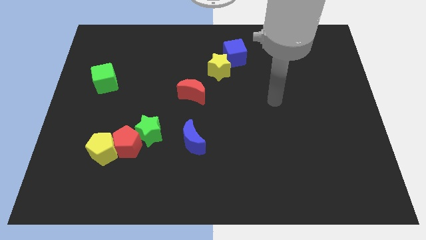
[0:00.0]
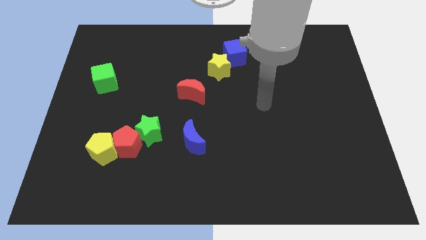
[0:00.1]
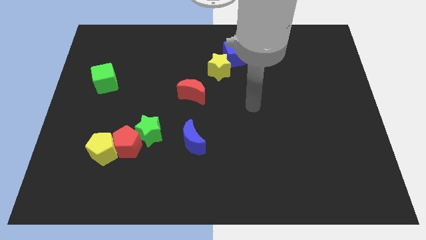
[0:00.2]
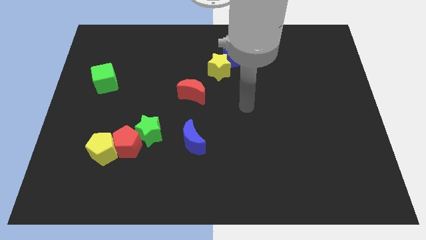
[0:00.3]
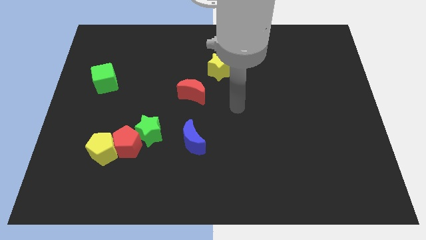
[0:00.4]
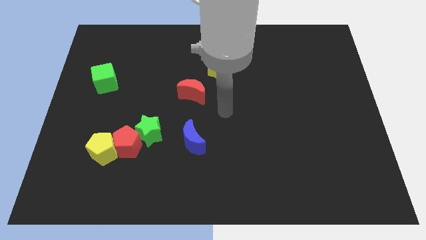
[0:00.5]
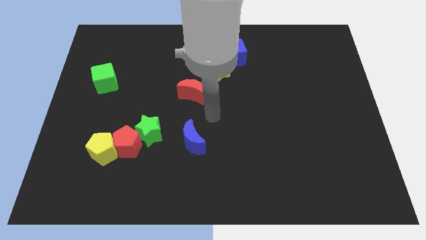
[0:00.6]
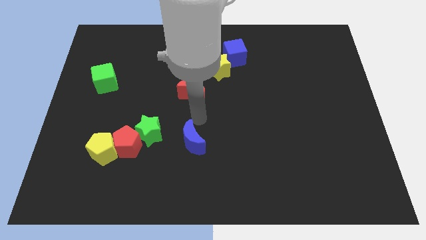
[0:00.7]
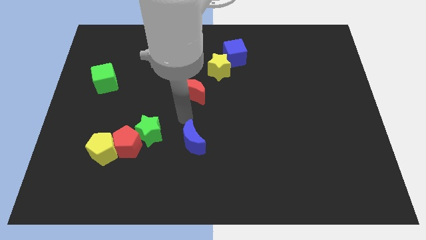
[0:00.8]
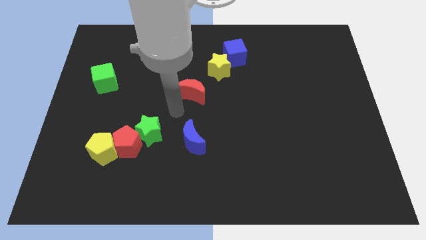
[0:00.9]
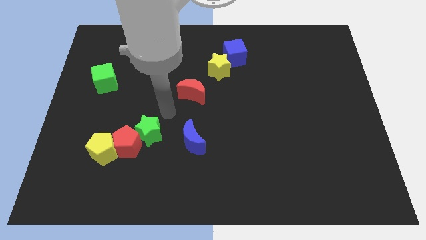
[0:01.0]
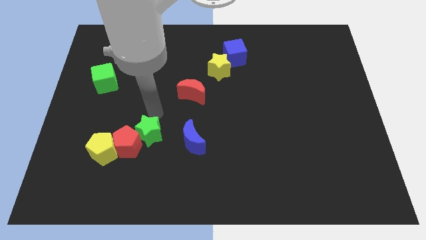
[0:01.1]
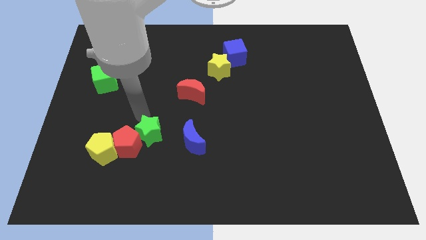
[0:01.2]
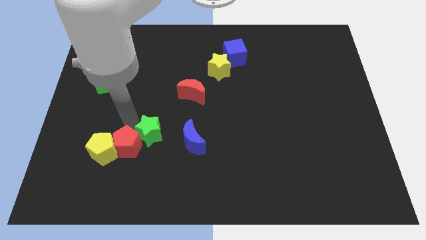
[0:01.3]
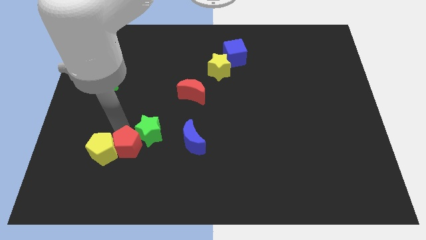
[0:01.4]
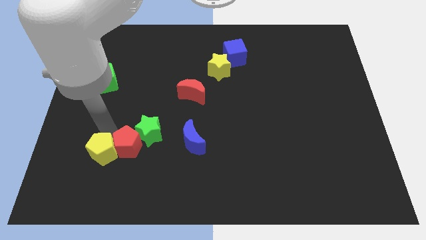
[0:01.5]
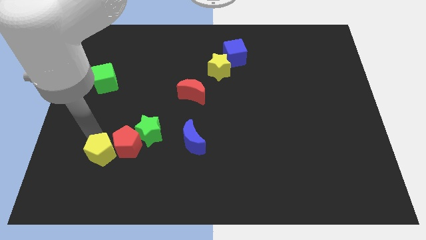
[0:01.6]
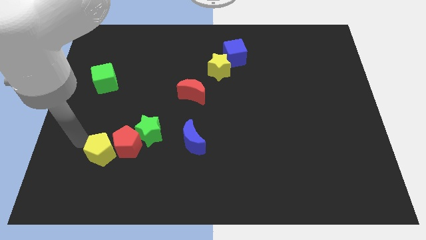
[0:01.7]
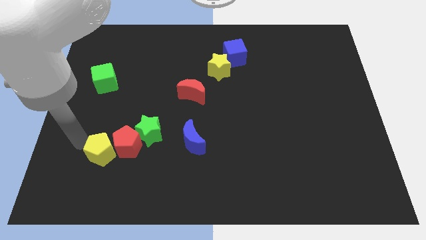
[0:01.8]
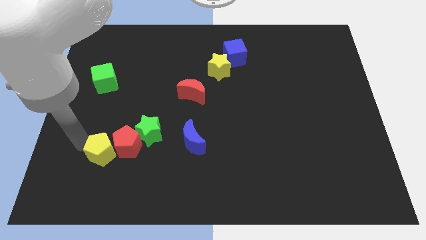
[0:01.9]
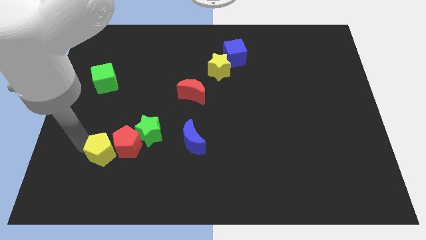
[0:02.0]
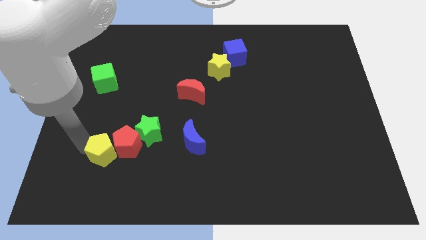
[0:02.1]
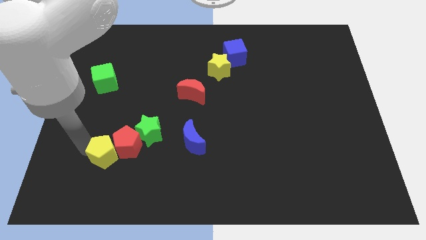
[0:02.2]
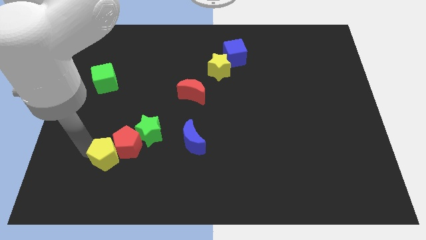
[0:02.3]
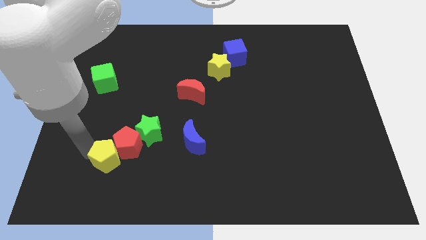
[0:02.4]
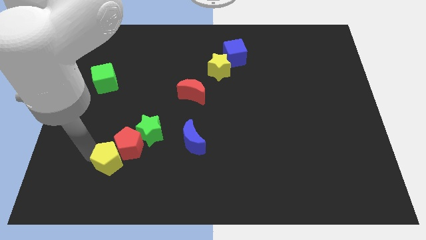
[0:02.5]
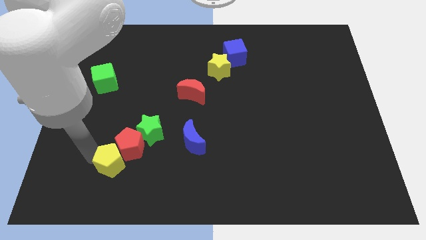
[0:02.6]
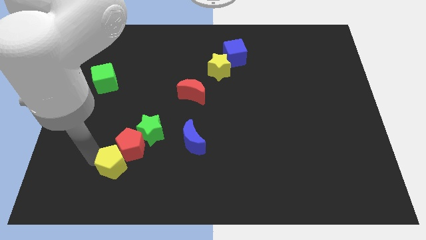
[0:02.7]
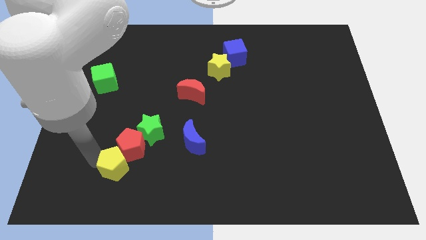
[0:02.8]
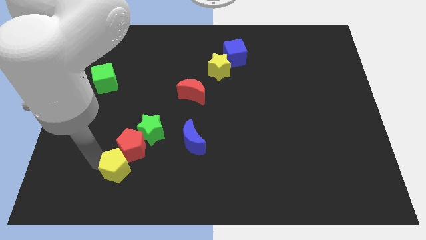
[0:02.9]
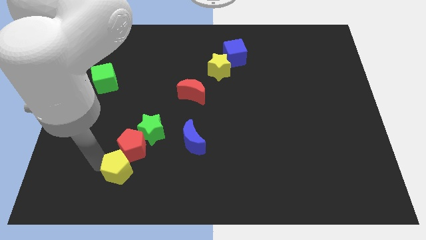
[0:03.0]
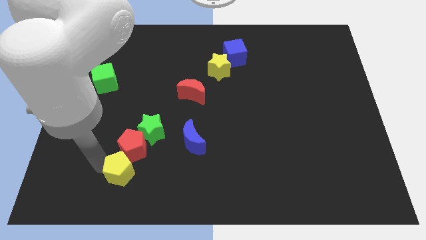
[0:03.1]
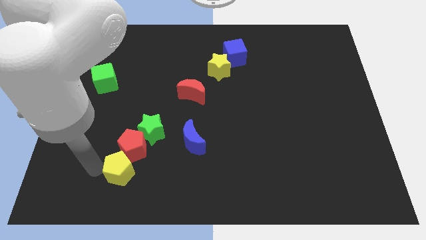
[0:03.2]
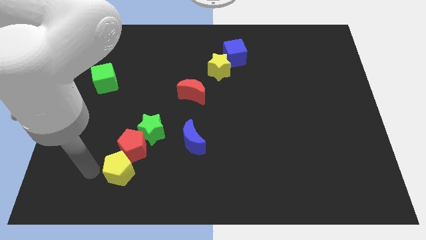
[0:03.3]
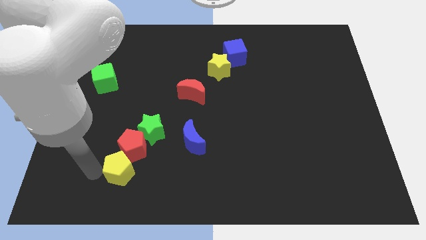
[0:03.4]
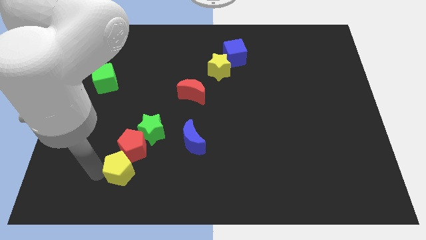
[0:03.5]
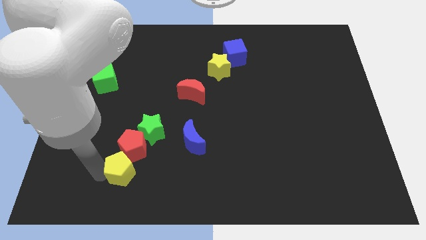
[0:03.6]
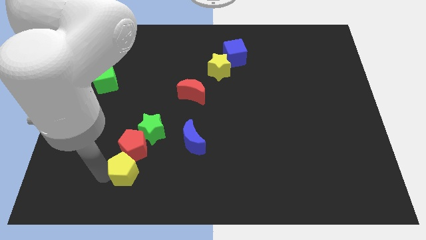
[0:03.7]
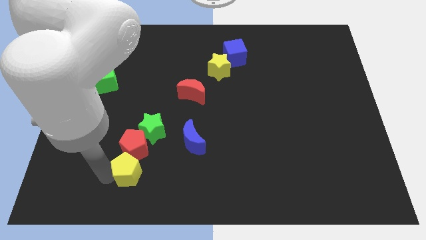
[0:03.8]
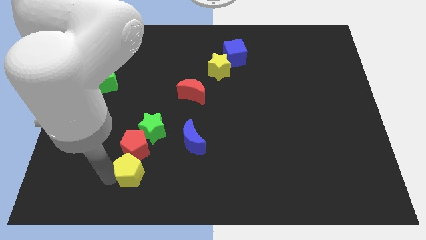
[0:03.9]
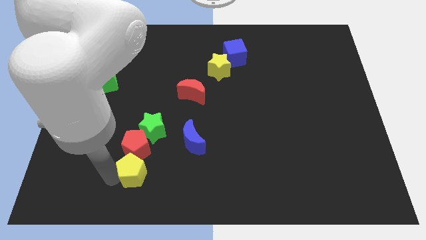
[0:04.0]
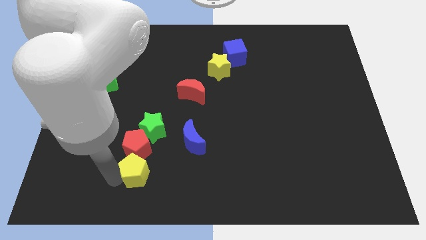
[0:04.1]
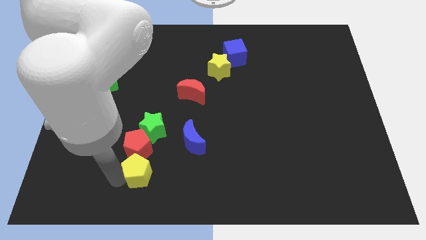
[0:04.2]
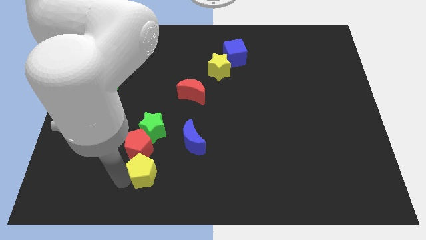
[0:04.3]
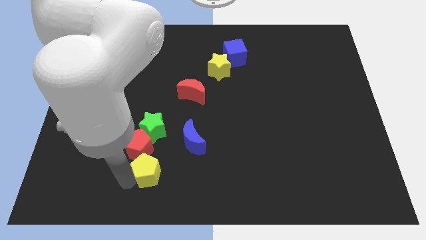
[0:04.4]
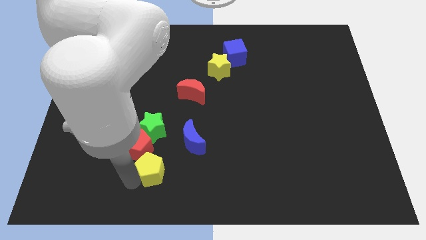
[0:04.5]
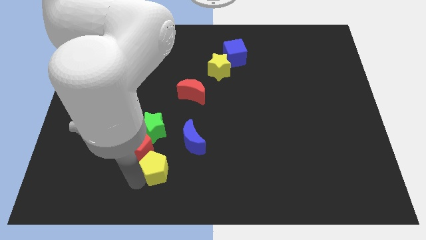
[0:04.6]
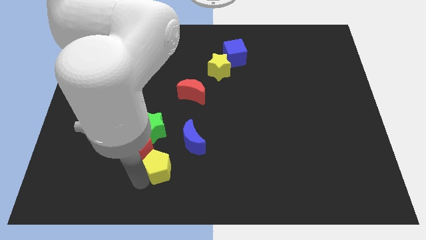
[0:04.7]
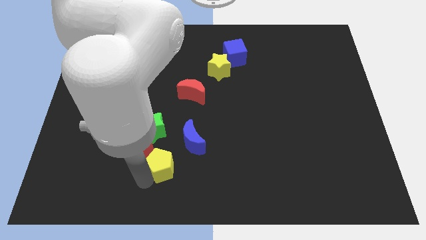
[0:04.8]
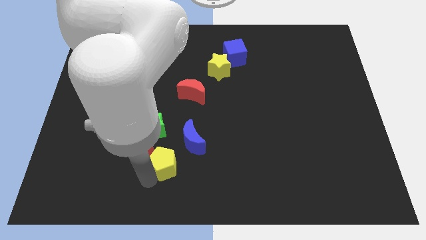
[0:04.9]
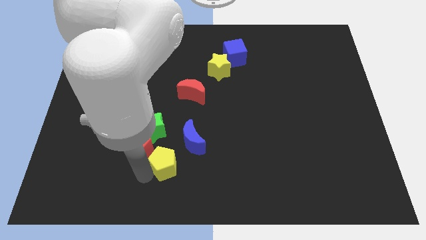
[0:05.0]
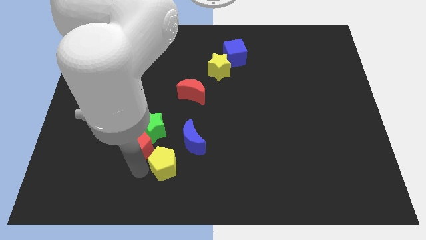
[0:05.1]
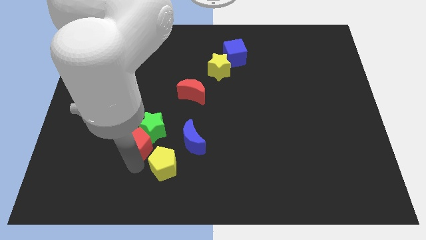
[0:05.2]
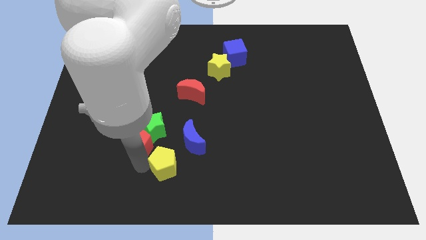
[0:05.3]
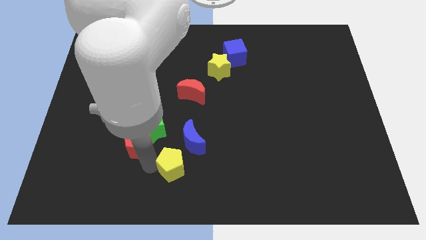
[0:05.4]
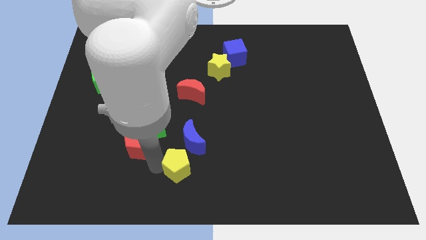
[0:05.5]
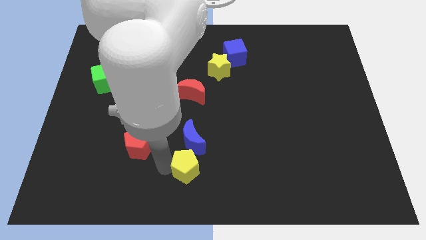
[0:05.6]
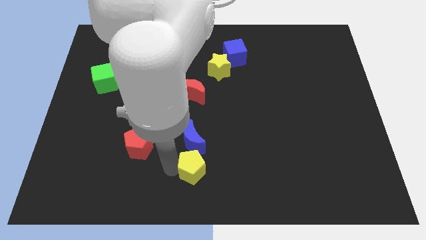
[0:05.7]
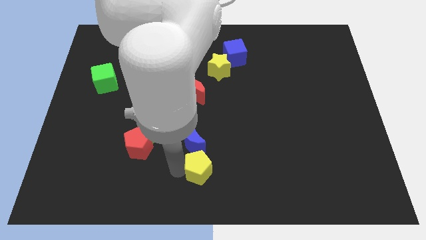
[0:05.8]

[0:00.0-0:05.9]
push the yellow pentagon right

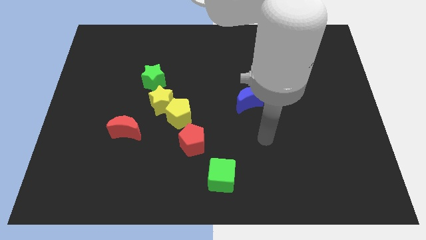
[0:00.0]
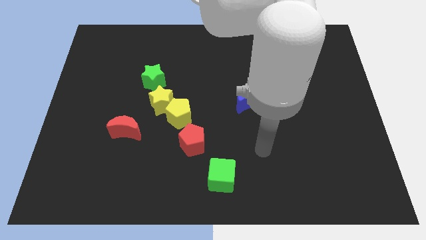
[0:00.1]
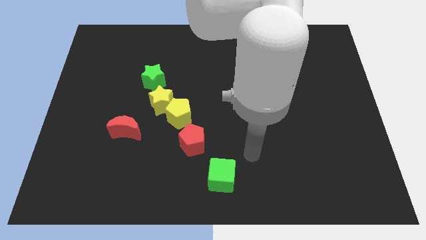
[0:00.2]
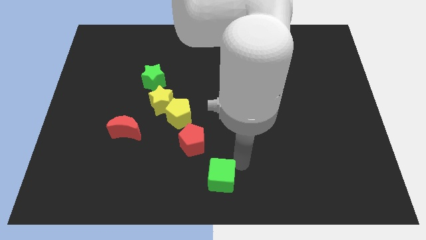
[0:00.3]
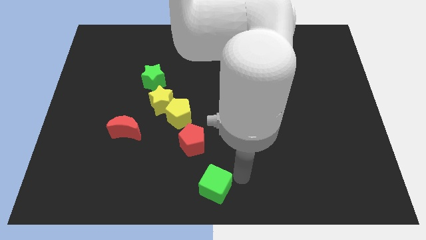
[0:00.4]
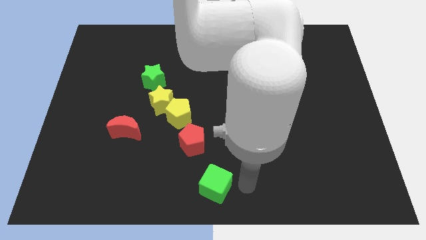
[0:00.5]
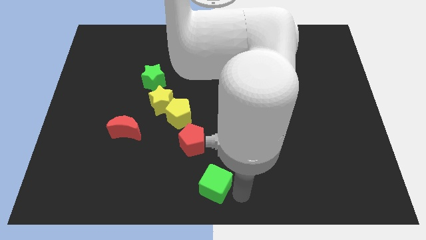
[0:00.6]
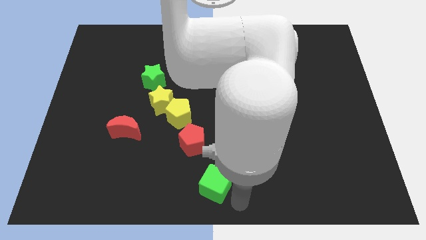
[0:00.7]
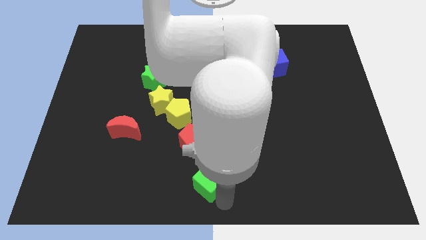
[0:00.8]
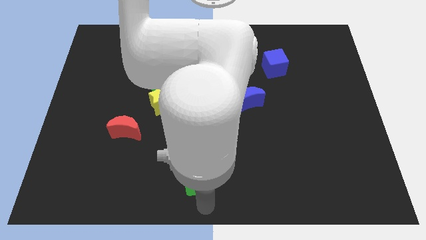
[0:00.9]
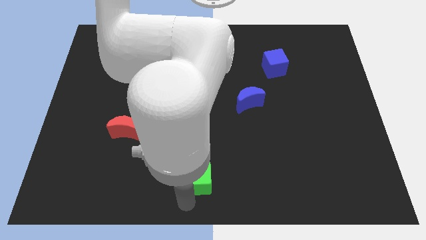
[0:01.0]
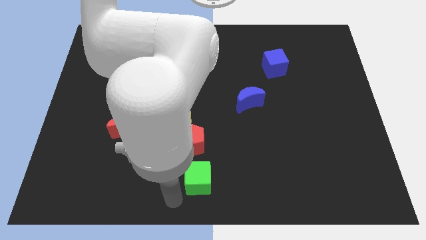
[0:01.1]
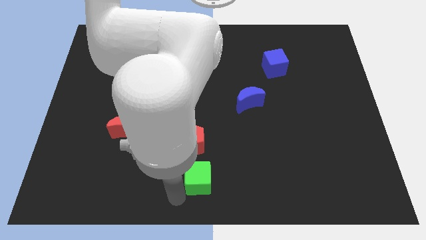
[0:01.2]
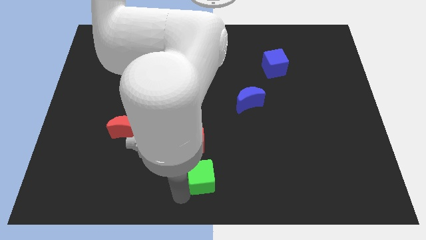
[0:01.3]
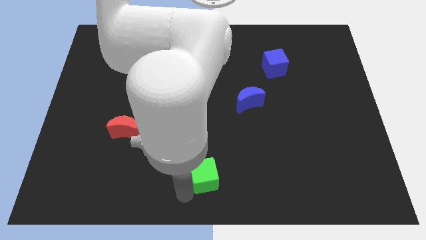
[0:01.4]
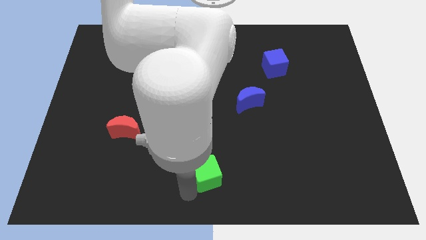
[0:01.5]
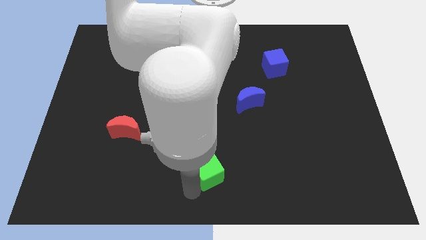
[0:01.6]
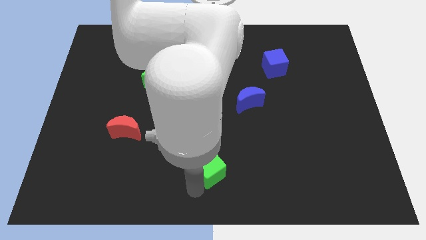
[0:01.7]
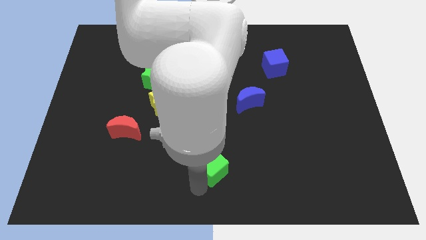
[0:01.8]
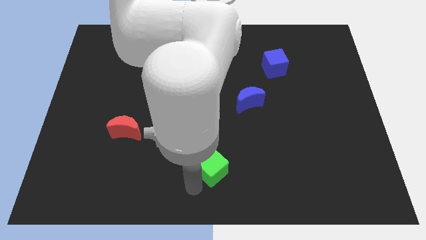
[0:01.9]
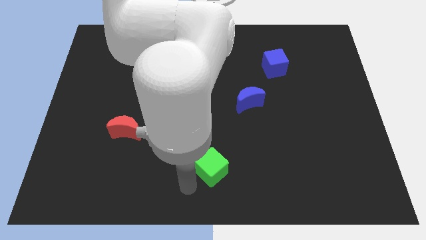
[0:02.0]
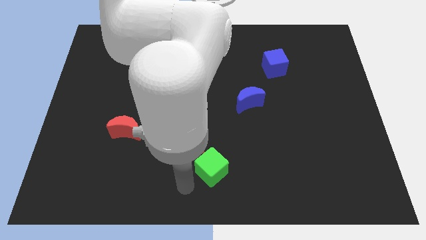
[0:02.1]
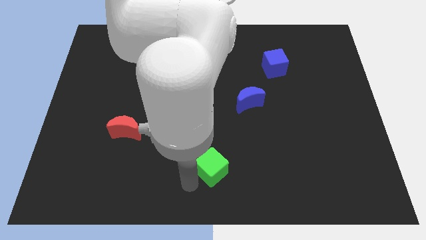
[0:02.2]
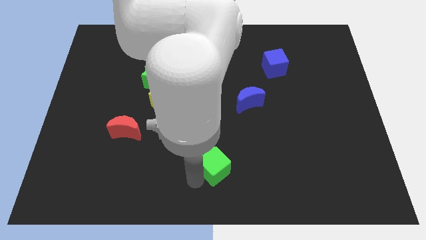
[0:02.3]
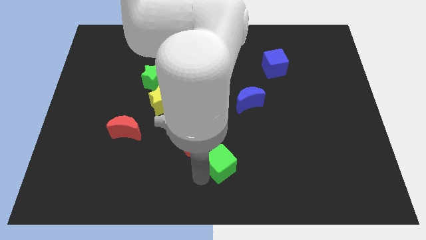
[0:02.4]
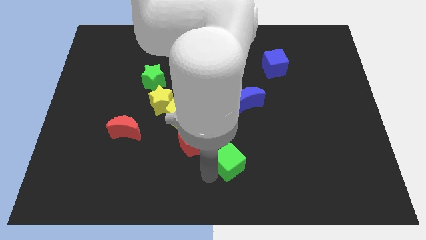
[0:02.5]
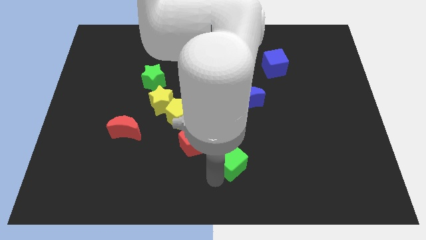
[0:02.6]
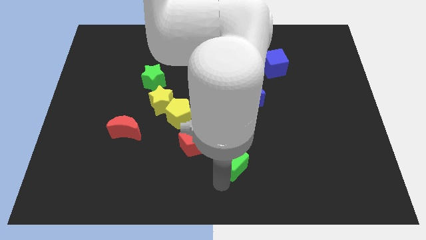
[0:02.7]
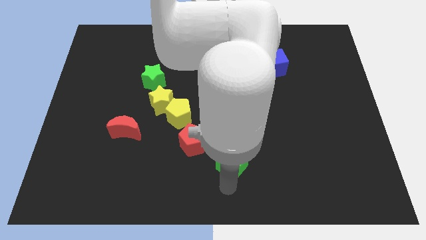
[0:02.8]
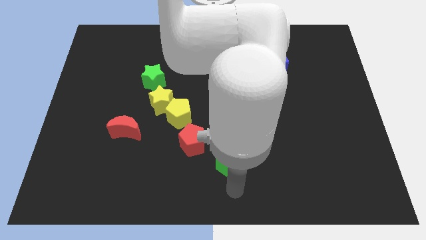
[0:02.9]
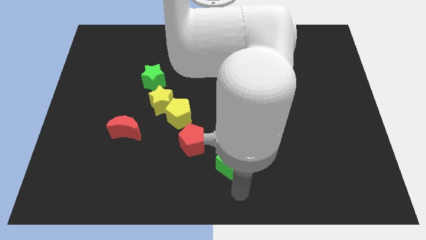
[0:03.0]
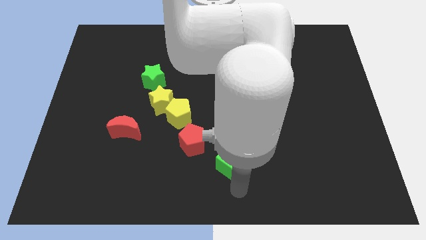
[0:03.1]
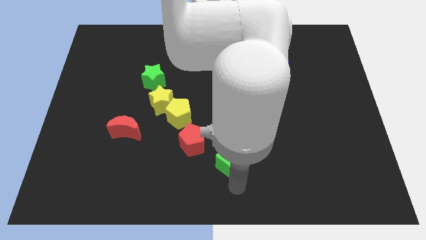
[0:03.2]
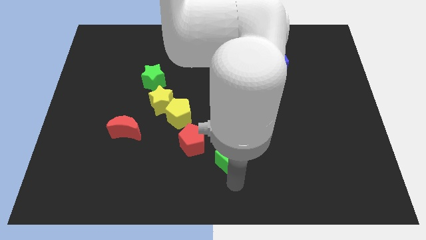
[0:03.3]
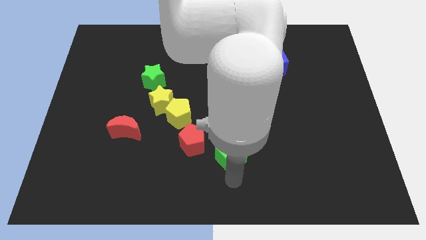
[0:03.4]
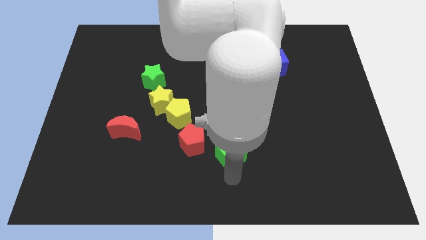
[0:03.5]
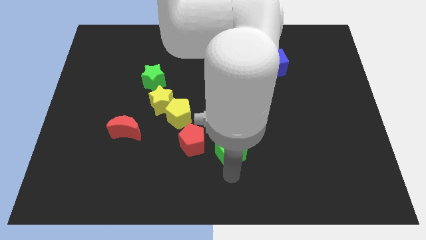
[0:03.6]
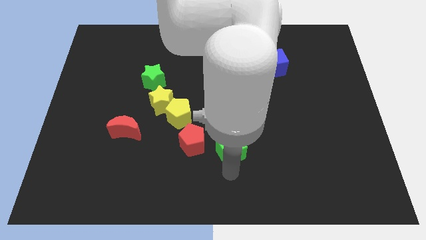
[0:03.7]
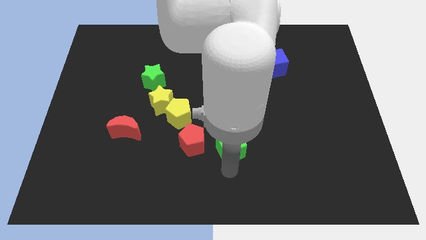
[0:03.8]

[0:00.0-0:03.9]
slide the green cube up slightly
